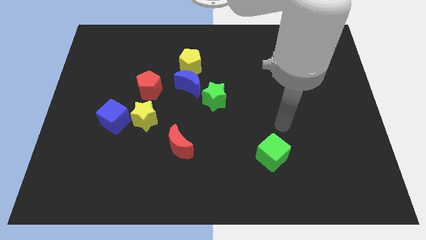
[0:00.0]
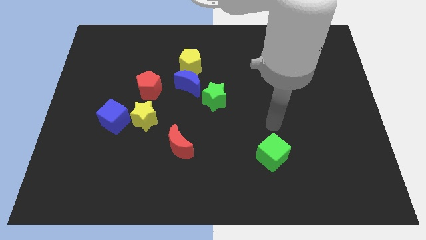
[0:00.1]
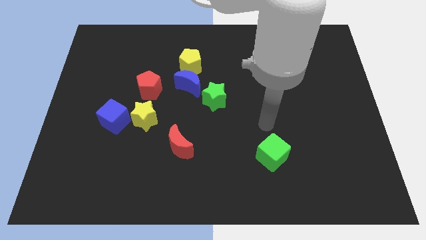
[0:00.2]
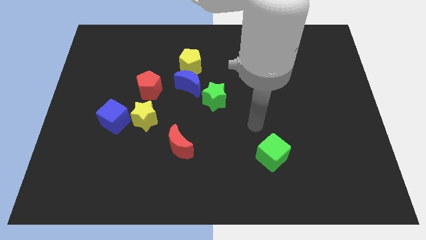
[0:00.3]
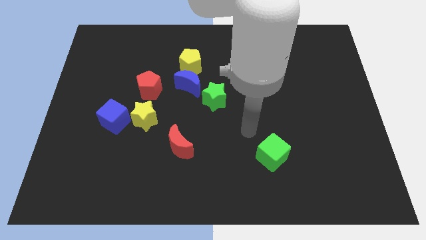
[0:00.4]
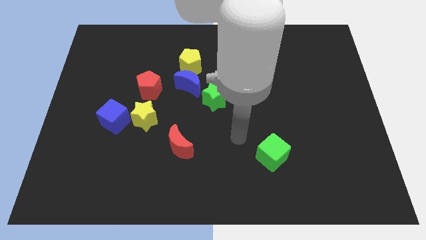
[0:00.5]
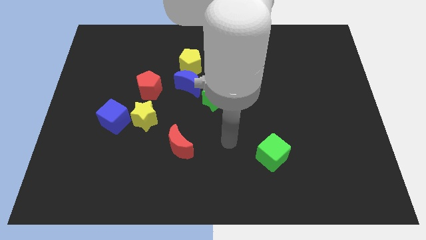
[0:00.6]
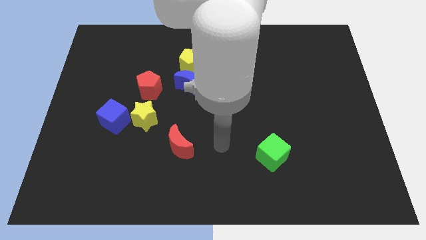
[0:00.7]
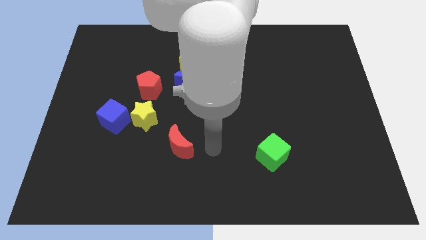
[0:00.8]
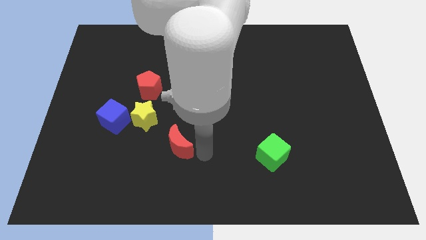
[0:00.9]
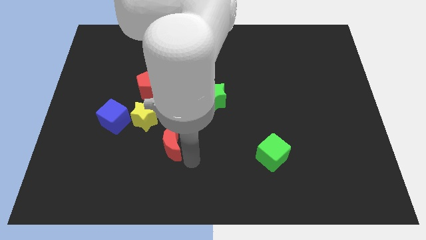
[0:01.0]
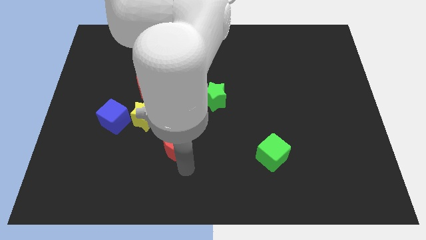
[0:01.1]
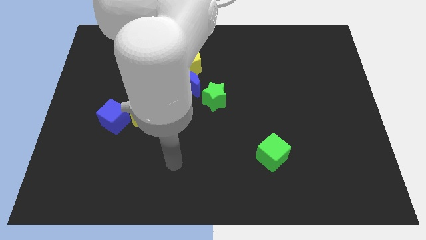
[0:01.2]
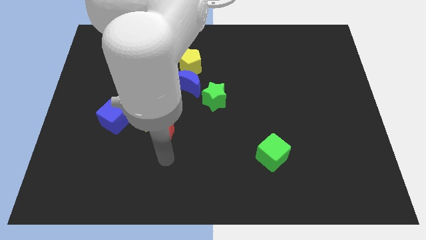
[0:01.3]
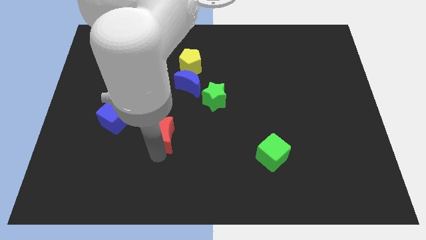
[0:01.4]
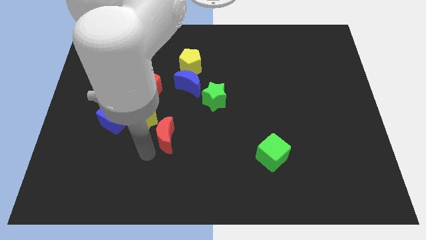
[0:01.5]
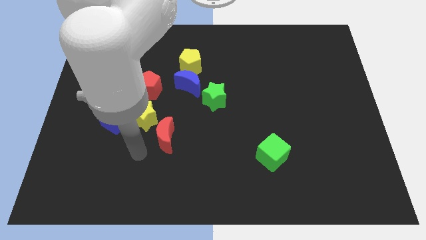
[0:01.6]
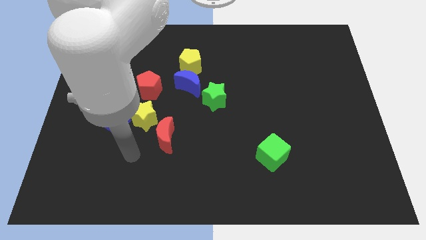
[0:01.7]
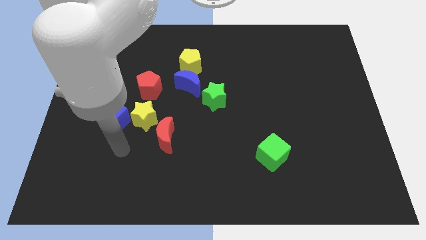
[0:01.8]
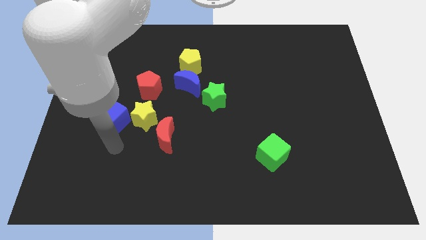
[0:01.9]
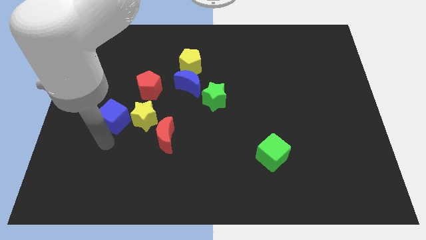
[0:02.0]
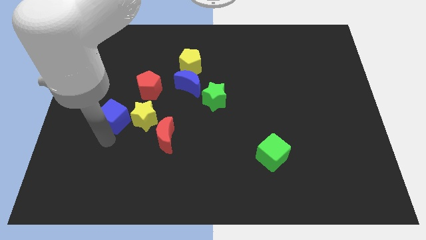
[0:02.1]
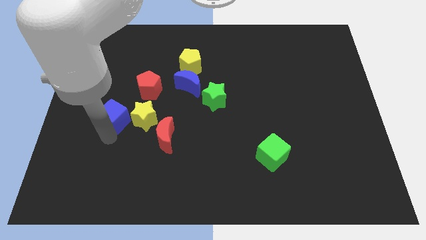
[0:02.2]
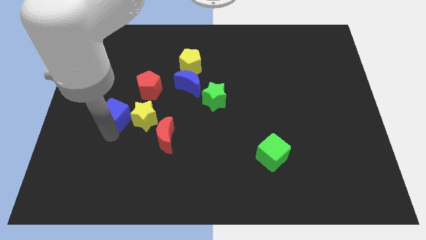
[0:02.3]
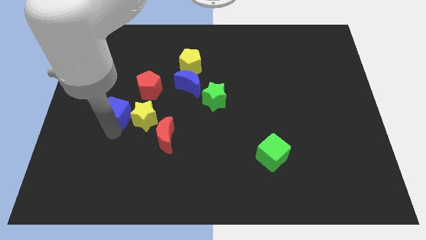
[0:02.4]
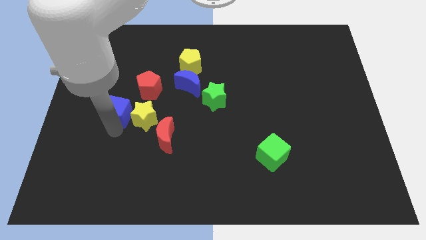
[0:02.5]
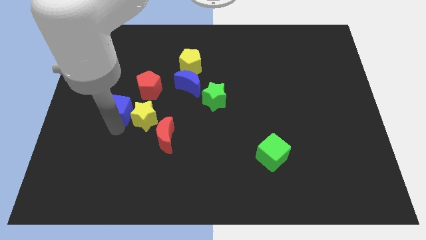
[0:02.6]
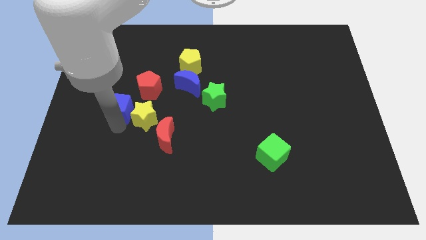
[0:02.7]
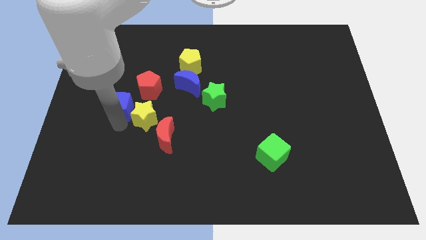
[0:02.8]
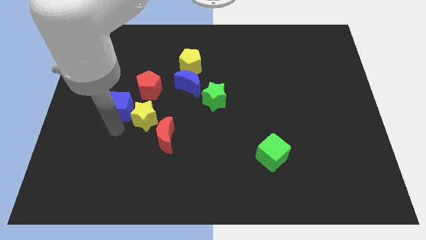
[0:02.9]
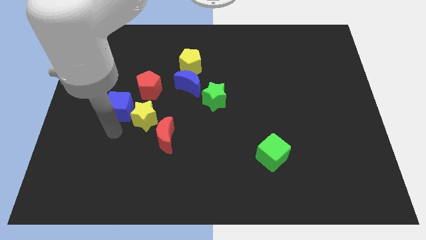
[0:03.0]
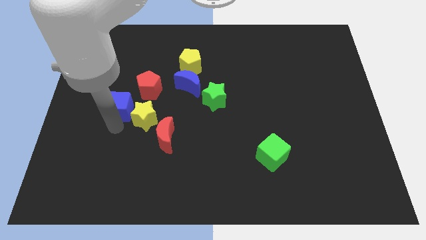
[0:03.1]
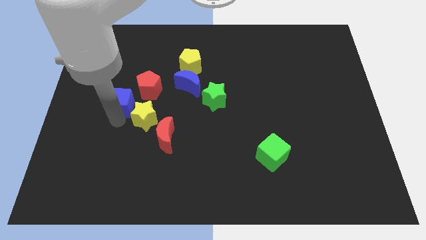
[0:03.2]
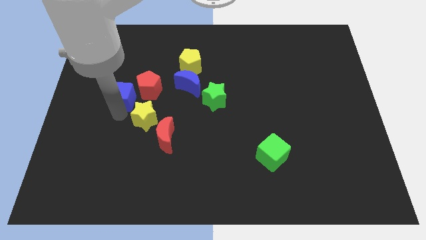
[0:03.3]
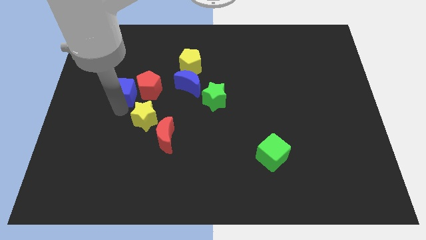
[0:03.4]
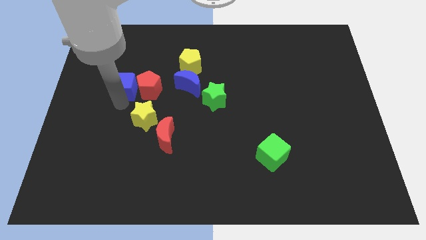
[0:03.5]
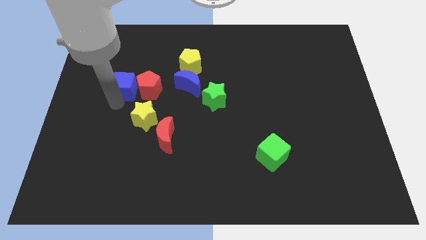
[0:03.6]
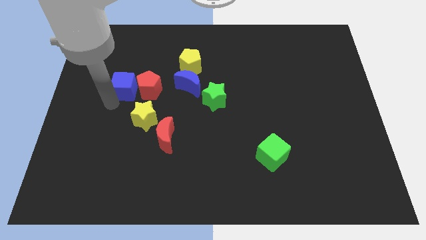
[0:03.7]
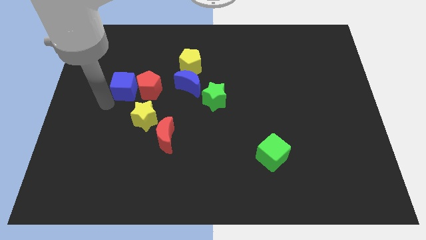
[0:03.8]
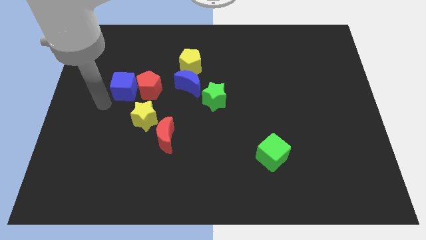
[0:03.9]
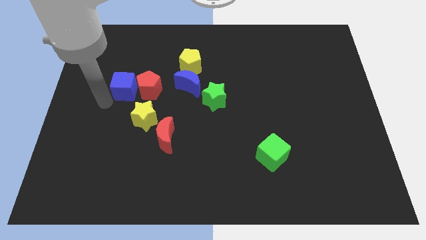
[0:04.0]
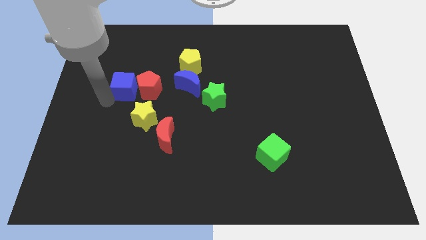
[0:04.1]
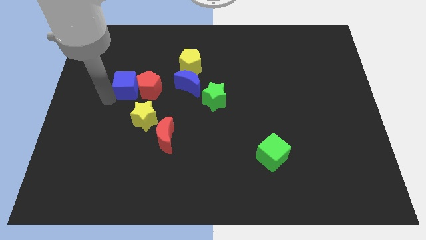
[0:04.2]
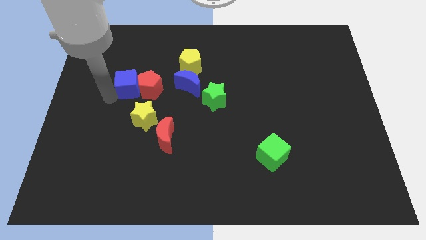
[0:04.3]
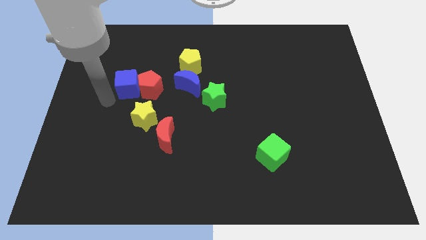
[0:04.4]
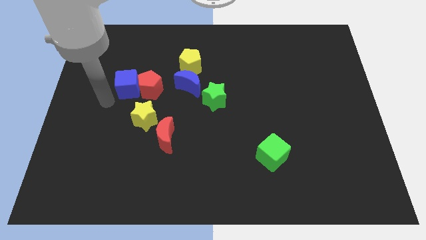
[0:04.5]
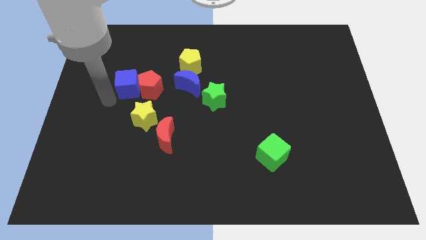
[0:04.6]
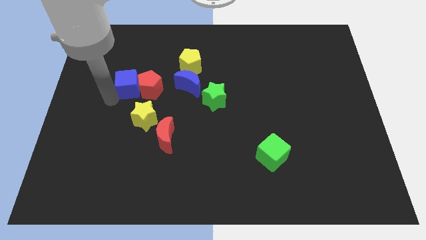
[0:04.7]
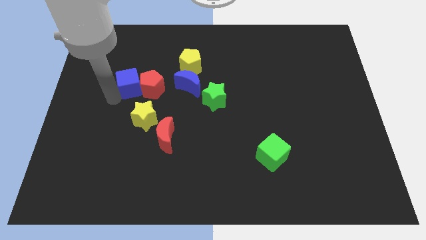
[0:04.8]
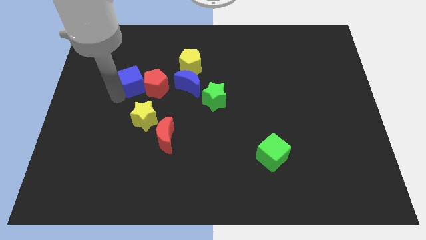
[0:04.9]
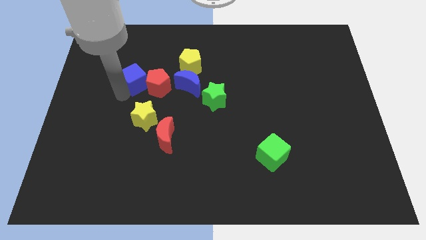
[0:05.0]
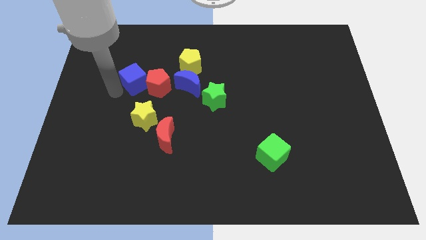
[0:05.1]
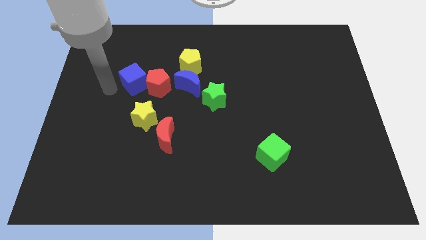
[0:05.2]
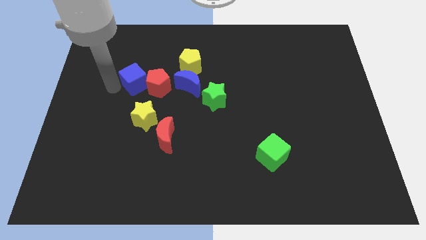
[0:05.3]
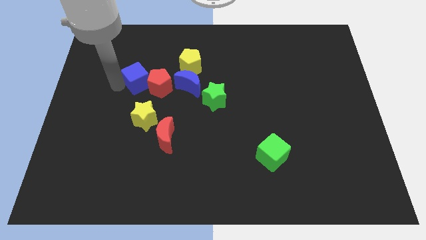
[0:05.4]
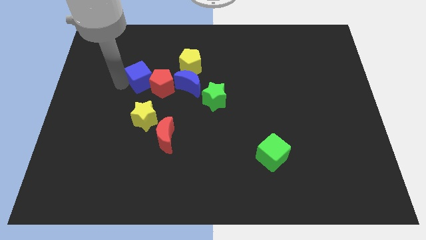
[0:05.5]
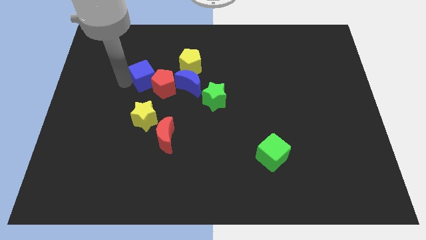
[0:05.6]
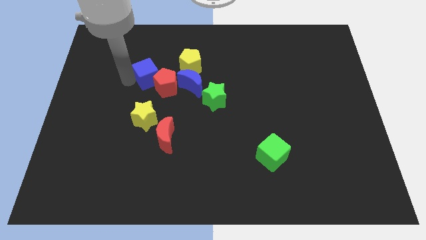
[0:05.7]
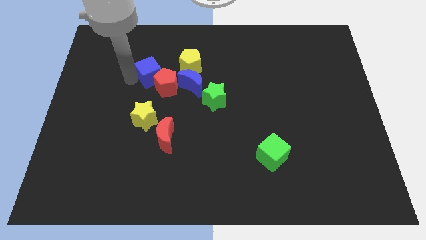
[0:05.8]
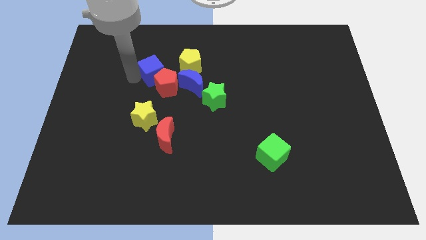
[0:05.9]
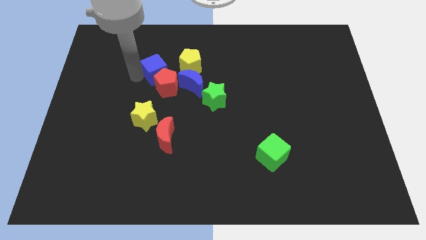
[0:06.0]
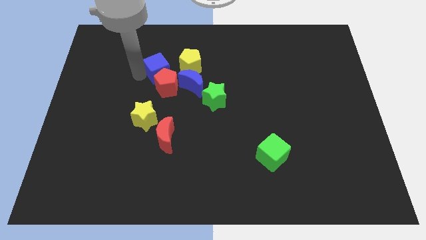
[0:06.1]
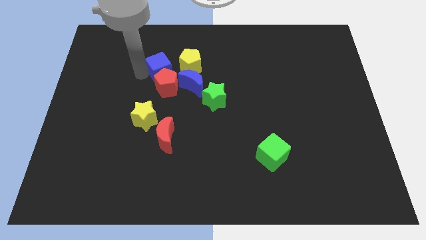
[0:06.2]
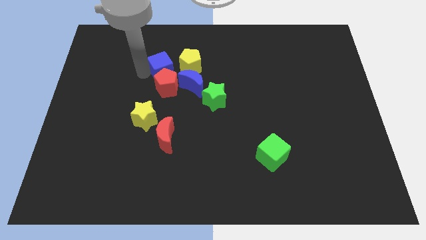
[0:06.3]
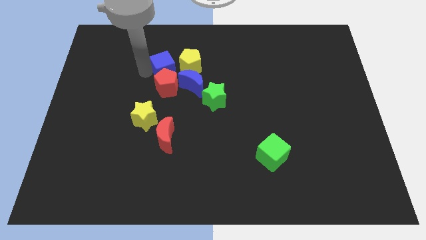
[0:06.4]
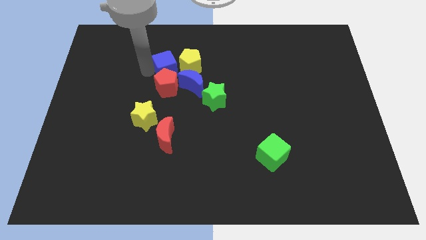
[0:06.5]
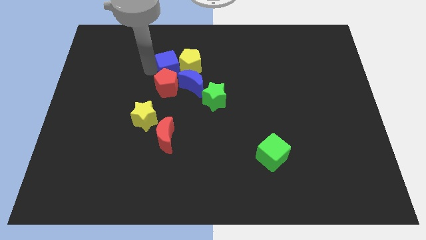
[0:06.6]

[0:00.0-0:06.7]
put the blue cube next to the yellow pentagon
